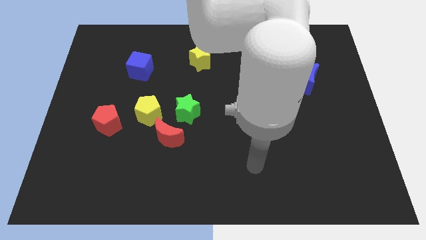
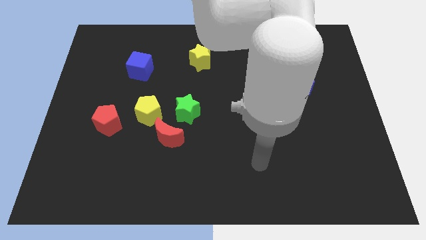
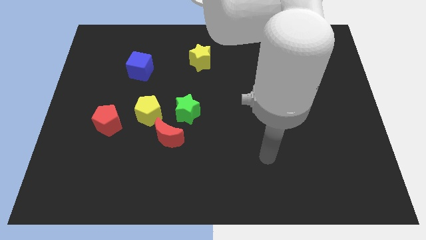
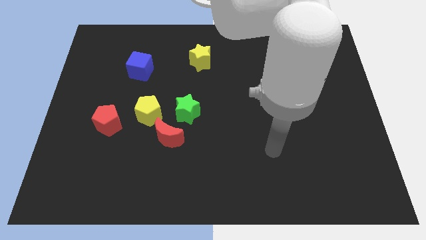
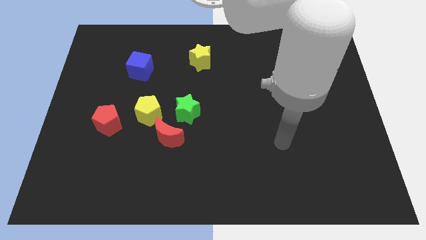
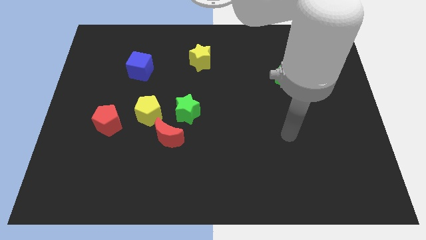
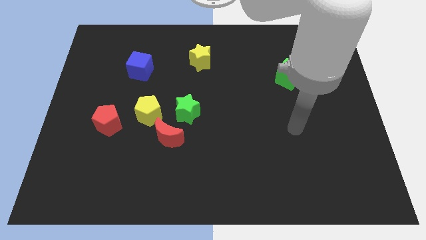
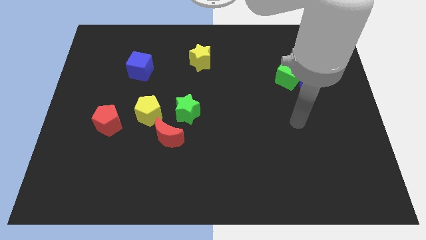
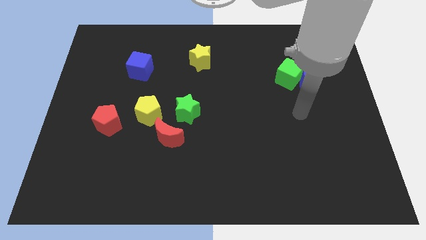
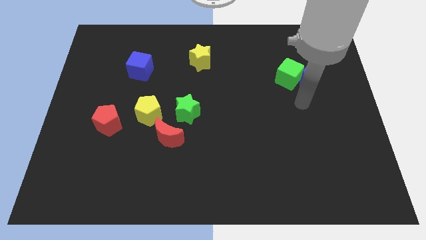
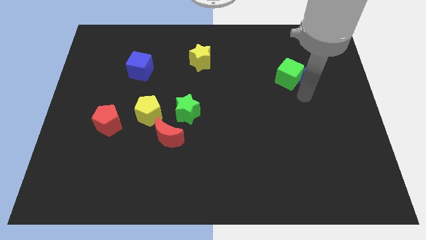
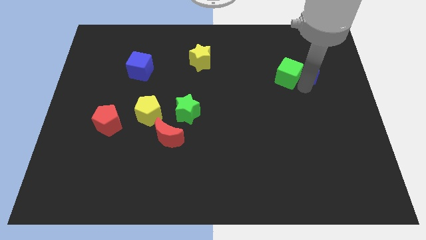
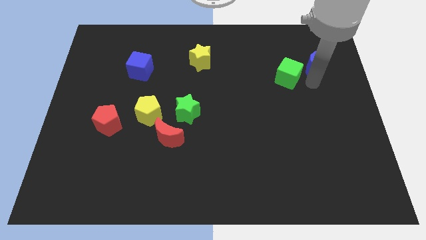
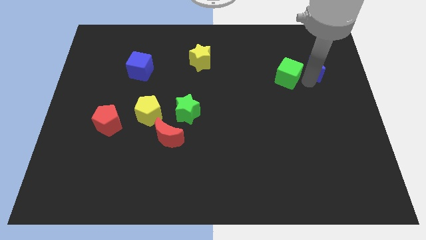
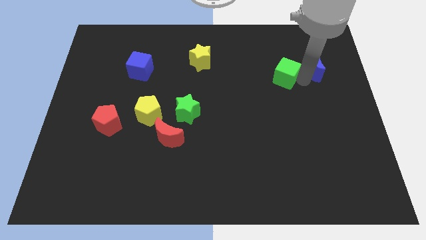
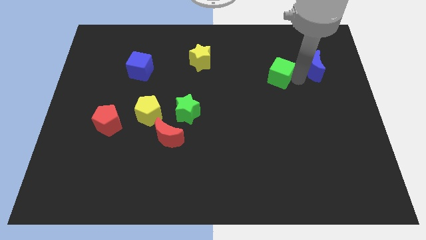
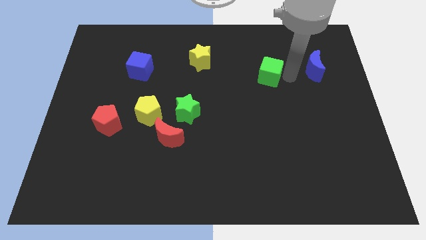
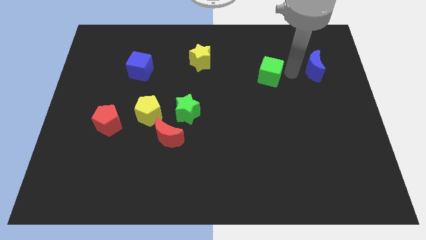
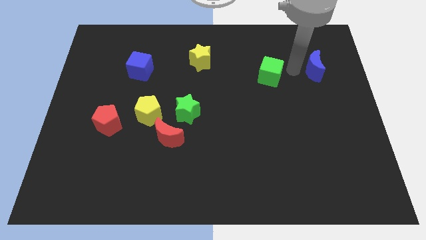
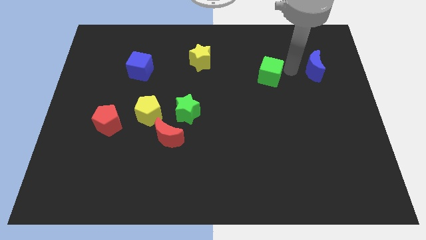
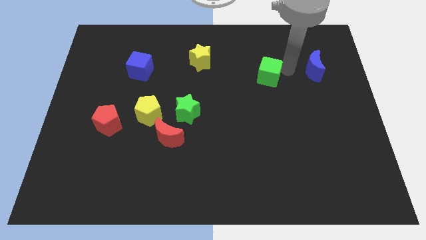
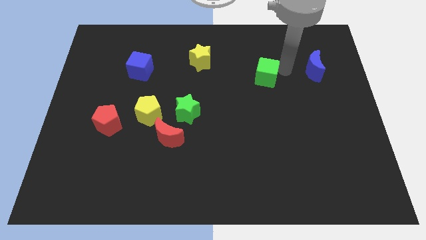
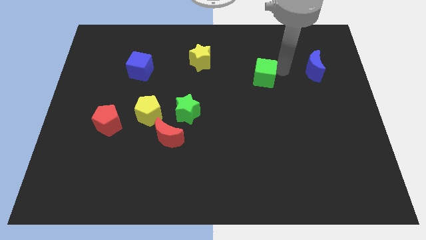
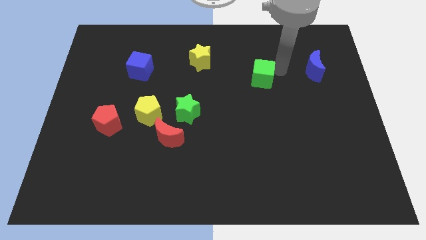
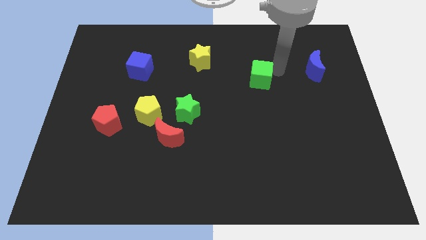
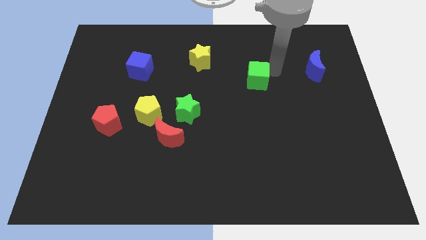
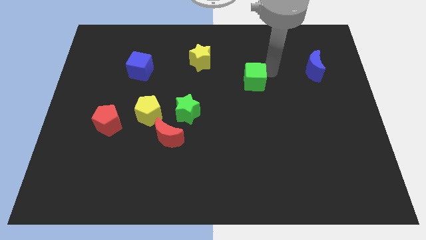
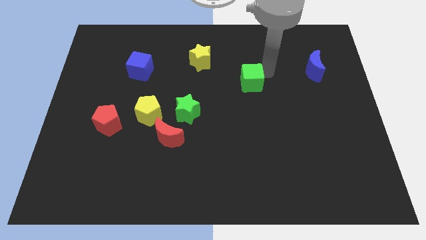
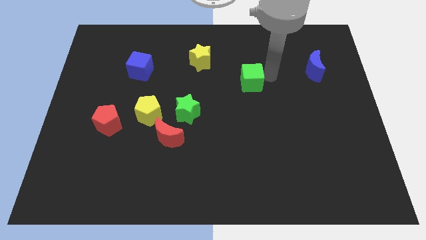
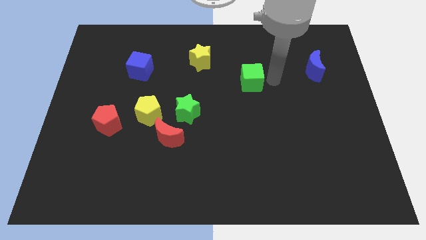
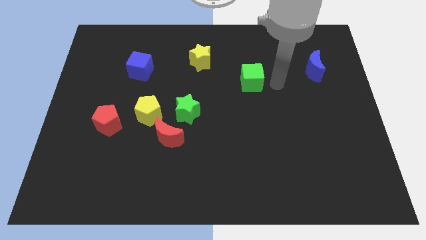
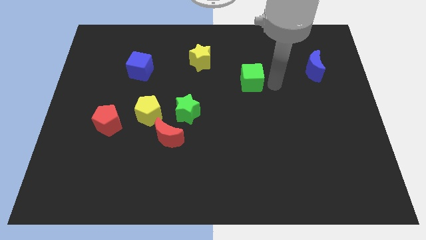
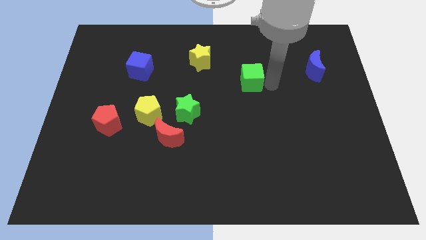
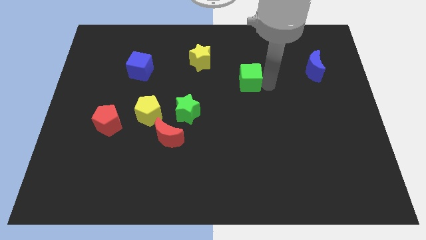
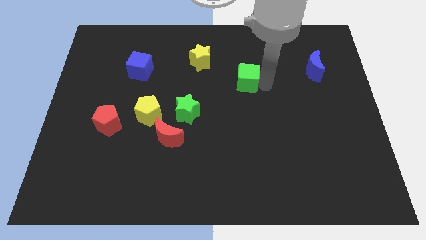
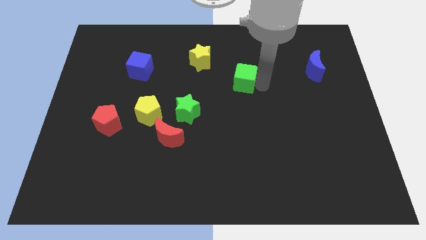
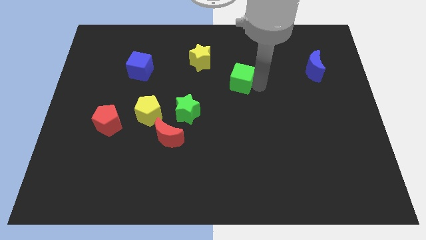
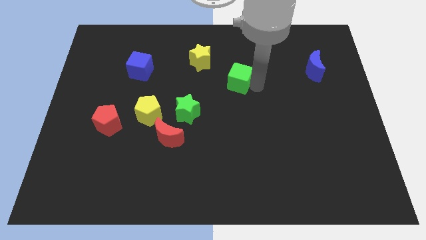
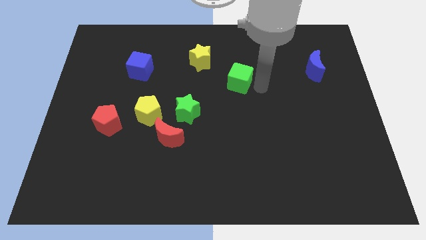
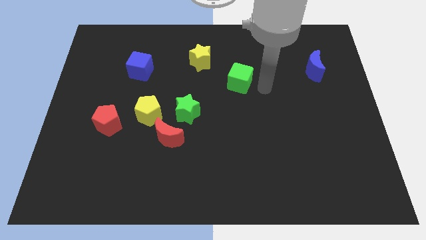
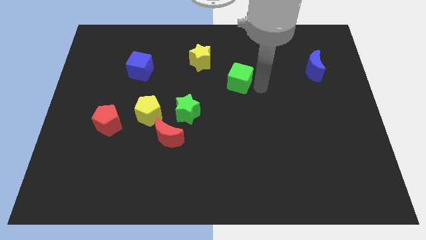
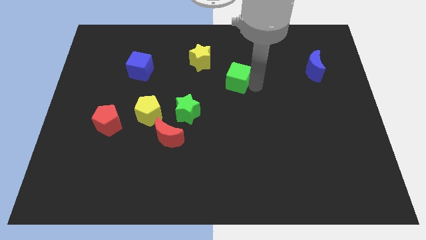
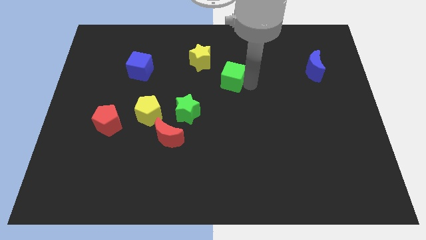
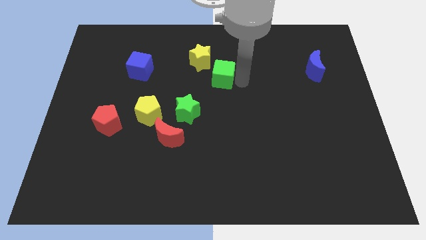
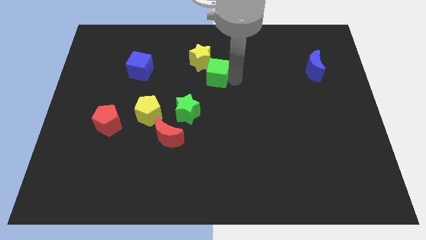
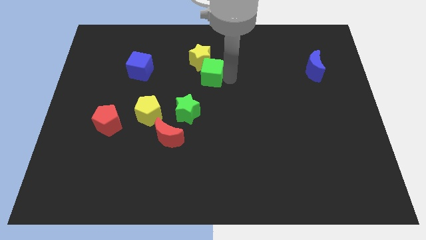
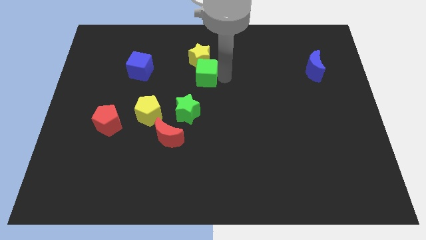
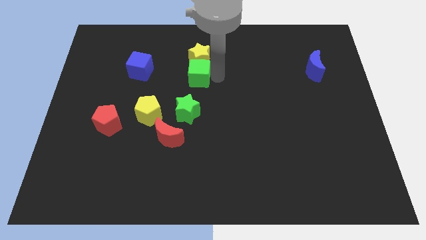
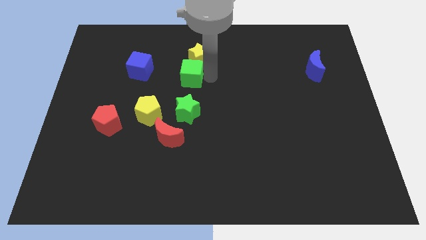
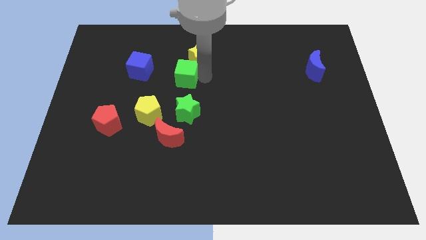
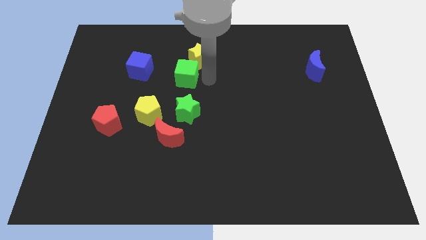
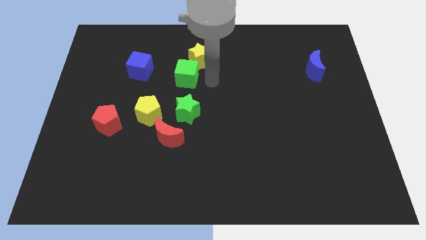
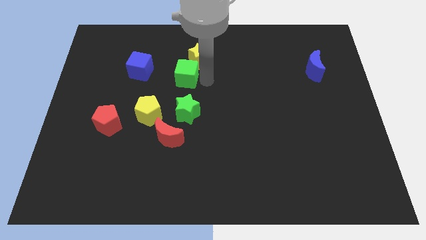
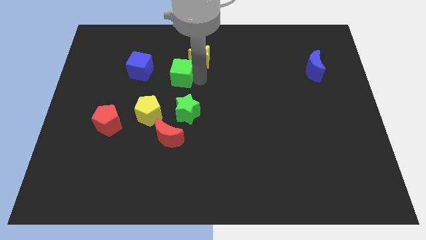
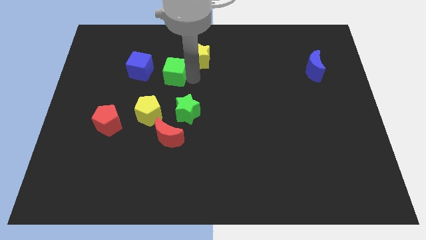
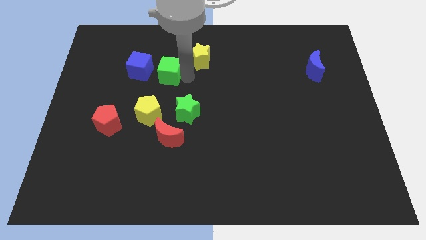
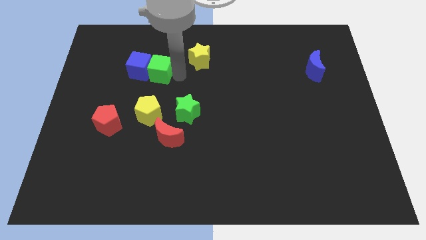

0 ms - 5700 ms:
push the green cube to the blue cube
